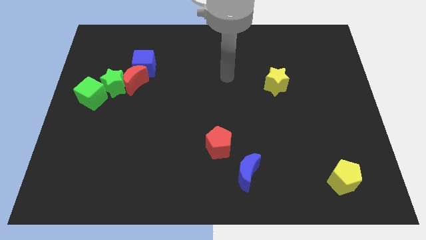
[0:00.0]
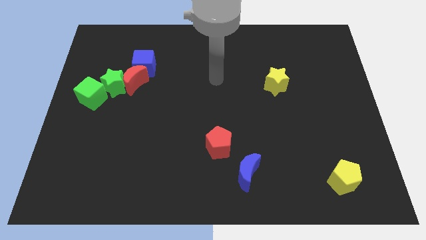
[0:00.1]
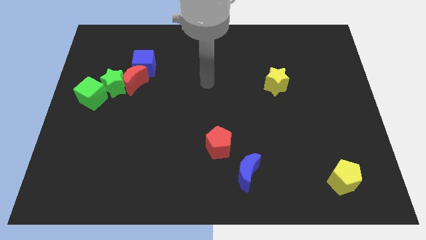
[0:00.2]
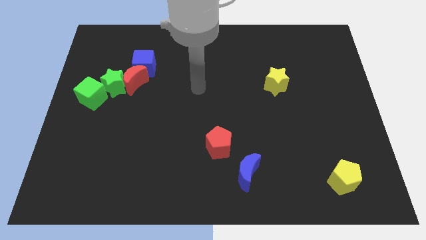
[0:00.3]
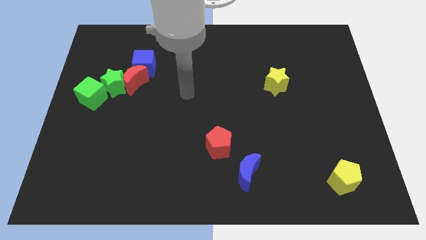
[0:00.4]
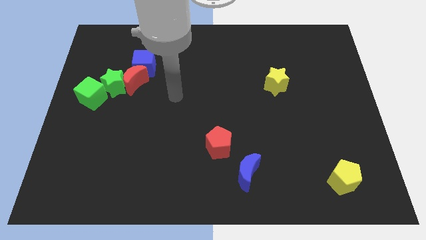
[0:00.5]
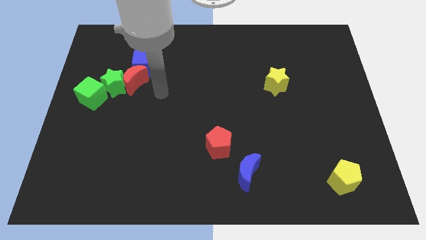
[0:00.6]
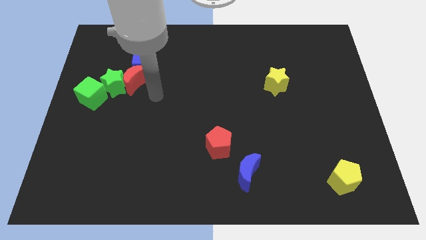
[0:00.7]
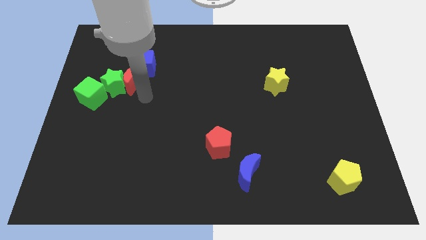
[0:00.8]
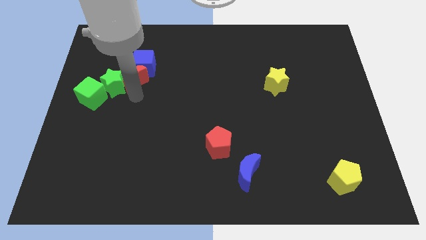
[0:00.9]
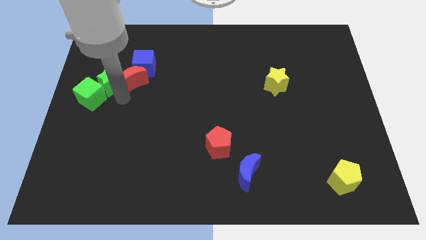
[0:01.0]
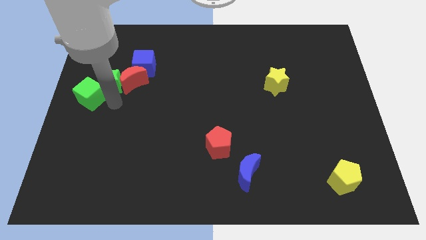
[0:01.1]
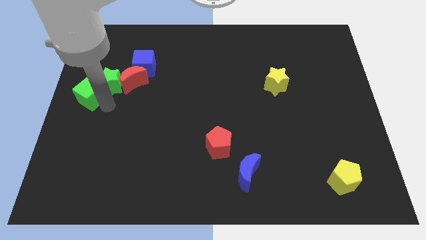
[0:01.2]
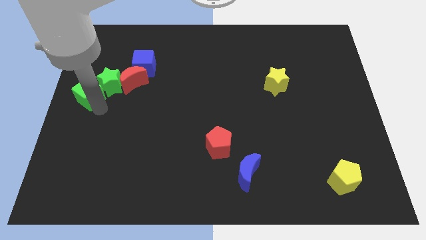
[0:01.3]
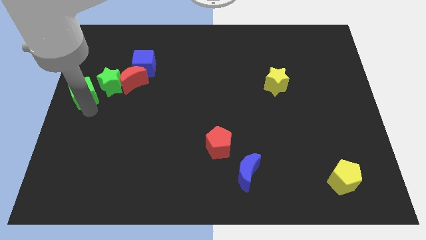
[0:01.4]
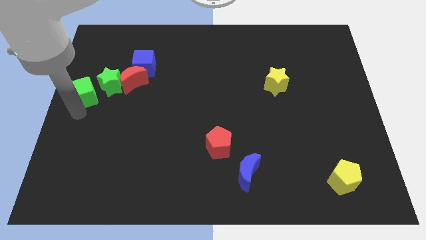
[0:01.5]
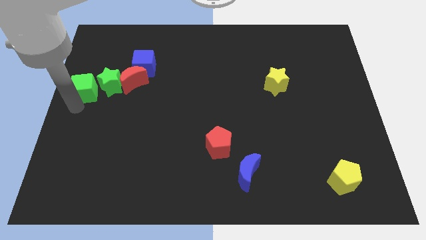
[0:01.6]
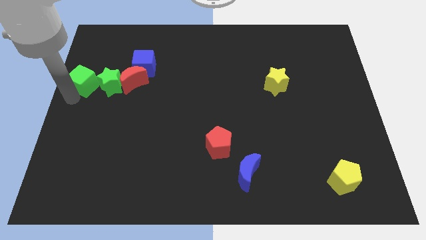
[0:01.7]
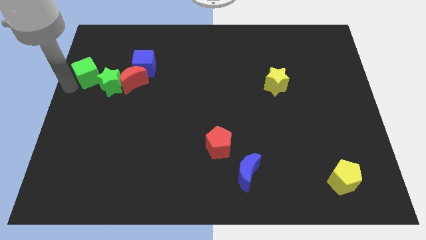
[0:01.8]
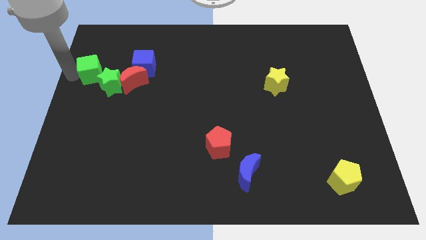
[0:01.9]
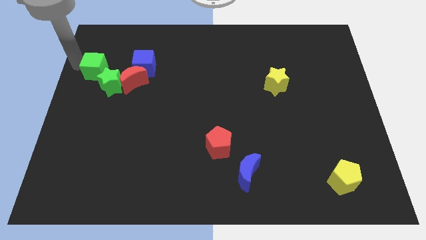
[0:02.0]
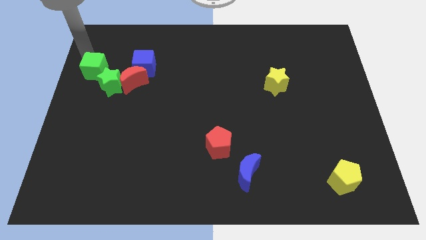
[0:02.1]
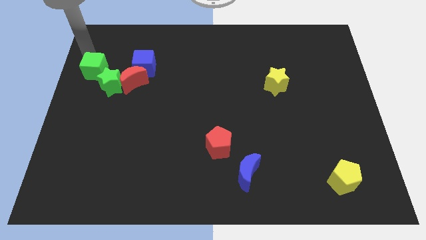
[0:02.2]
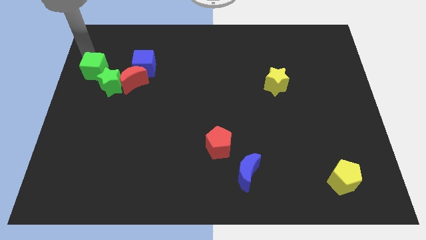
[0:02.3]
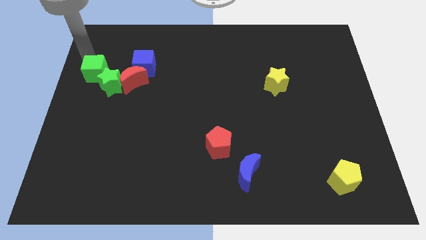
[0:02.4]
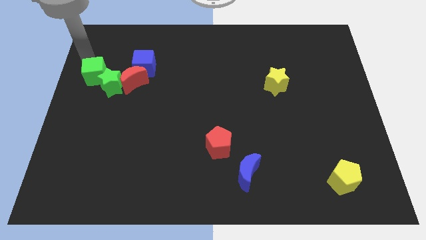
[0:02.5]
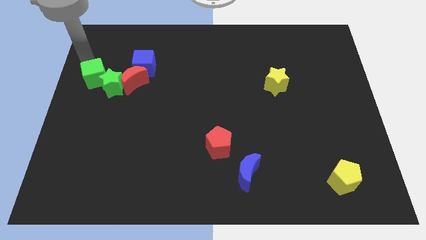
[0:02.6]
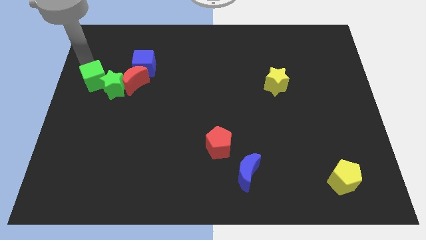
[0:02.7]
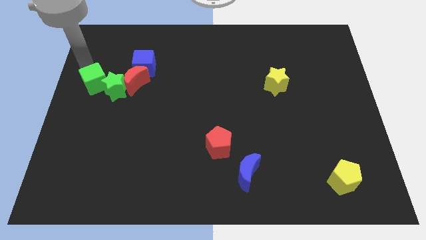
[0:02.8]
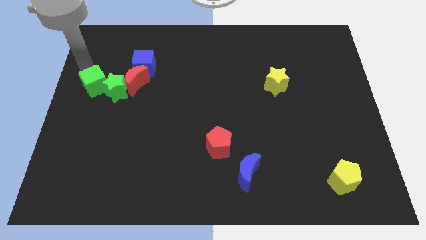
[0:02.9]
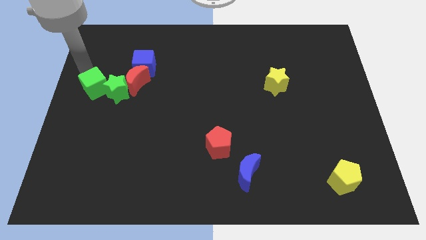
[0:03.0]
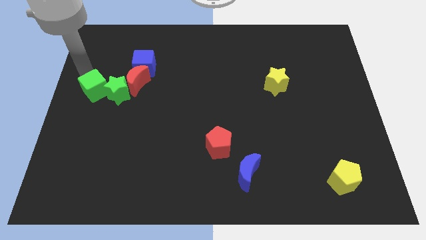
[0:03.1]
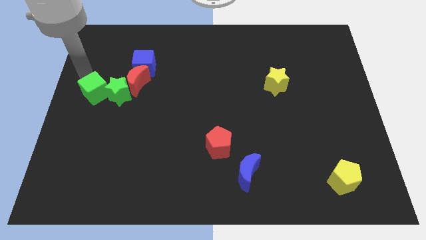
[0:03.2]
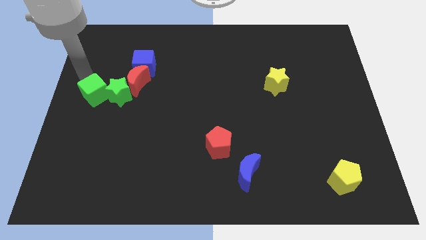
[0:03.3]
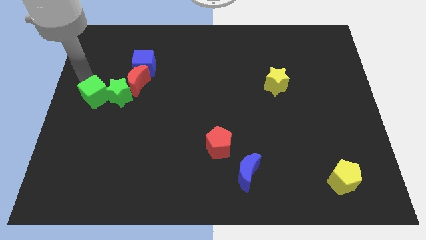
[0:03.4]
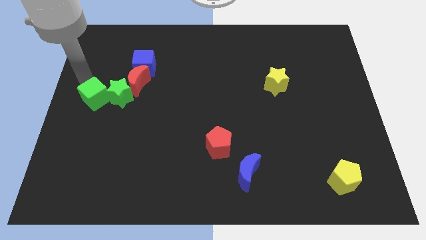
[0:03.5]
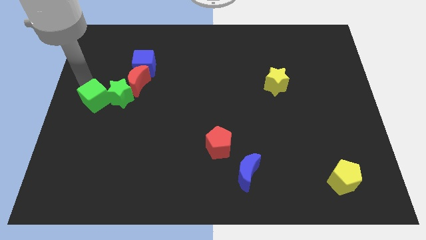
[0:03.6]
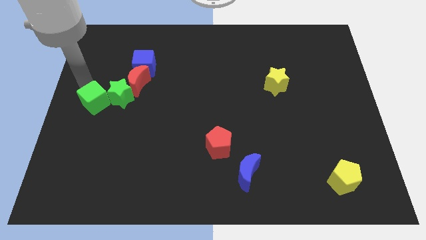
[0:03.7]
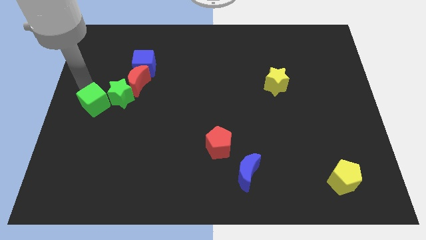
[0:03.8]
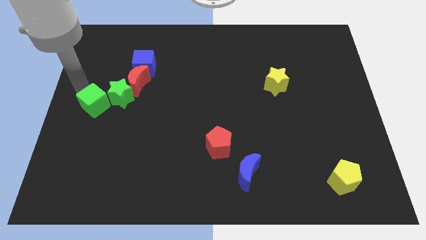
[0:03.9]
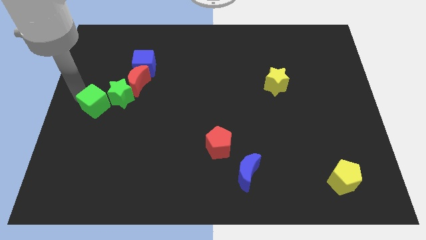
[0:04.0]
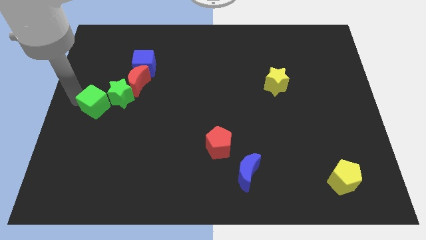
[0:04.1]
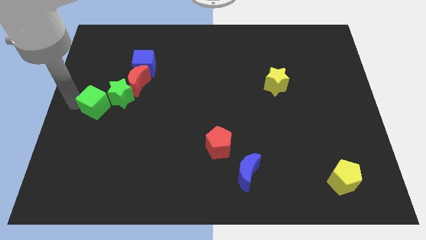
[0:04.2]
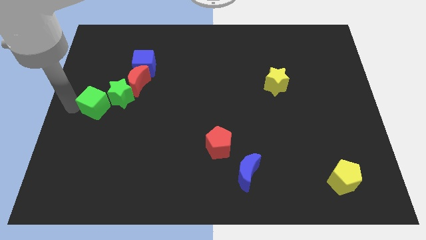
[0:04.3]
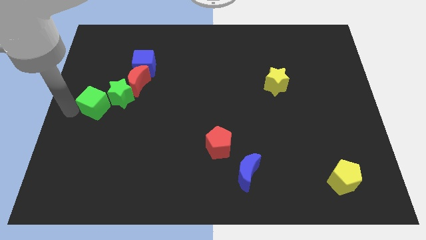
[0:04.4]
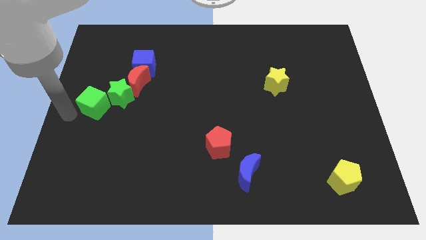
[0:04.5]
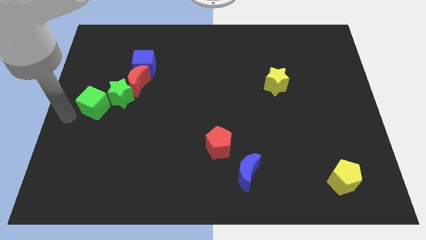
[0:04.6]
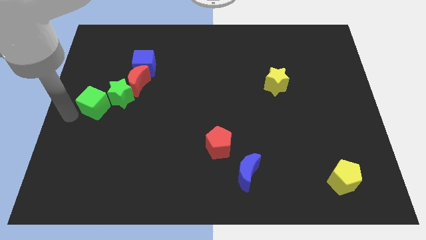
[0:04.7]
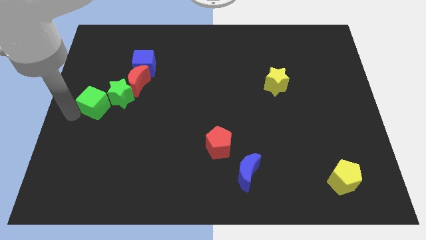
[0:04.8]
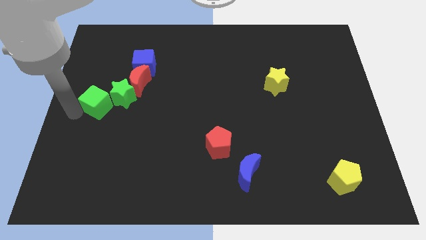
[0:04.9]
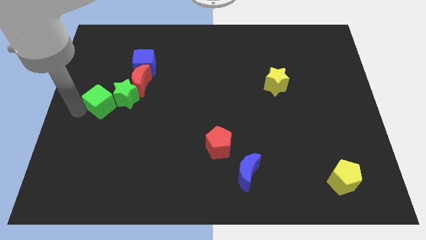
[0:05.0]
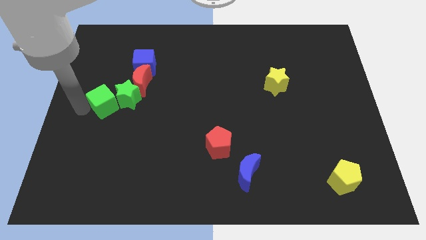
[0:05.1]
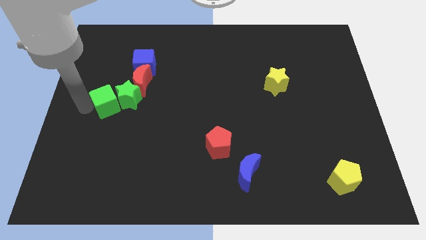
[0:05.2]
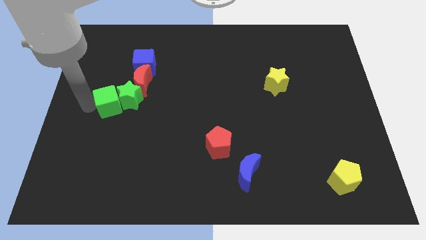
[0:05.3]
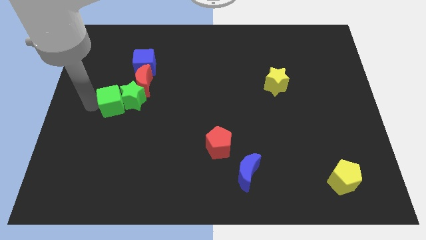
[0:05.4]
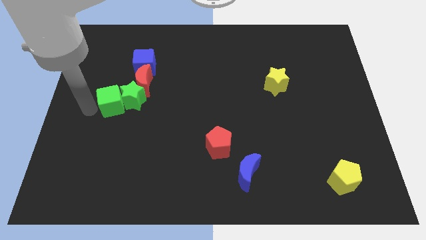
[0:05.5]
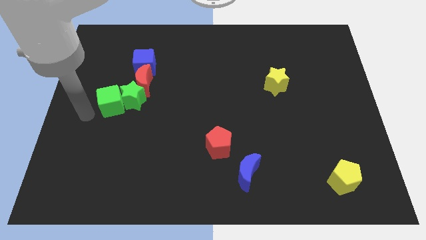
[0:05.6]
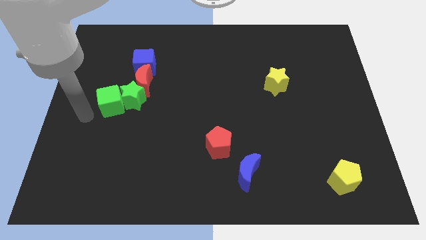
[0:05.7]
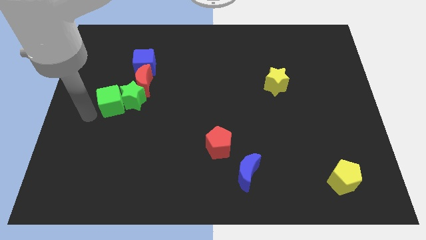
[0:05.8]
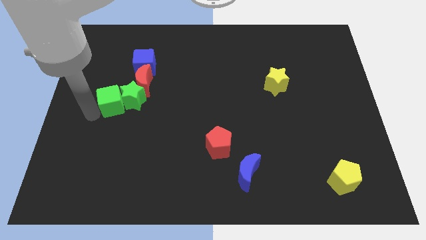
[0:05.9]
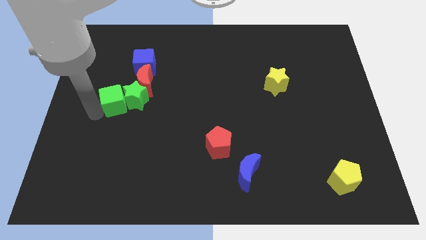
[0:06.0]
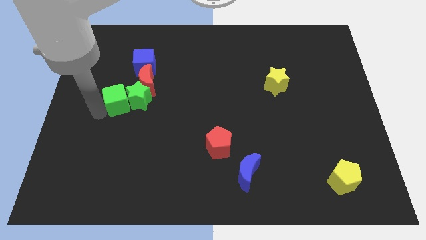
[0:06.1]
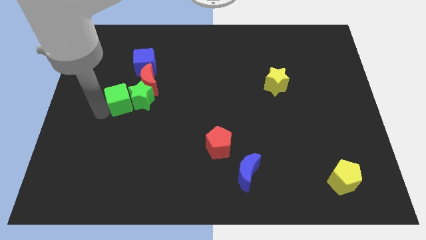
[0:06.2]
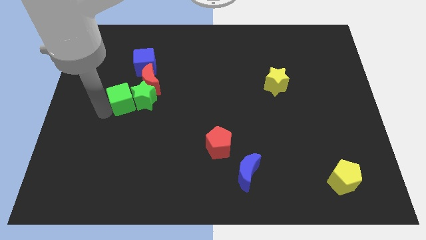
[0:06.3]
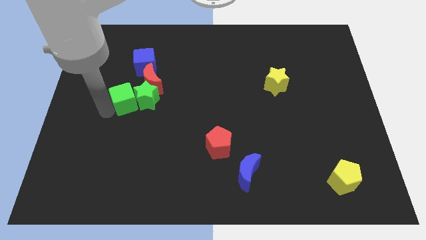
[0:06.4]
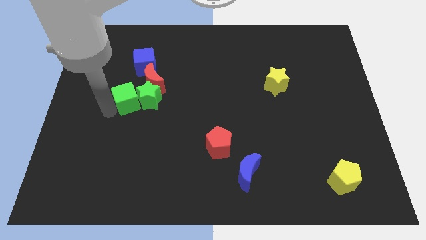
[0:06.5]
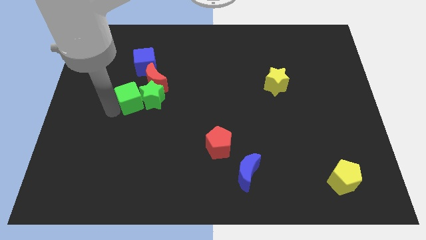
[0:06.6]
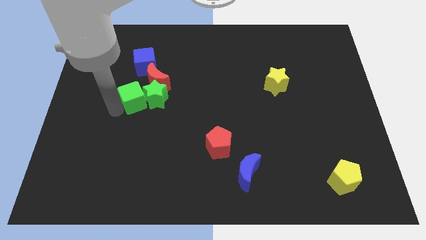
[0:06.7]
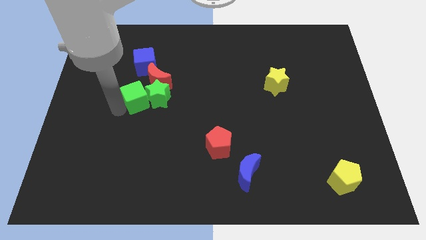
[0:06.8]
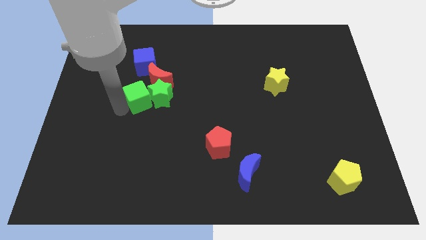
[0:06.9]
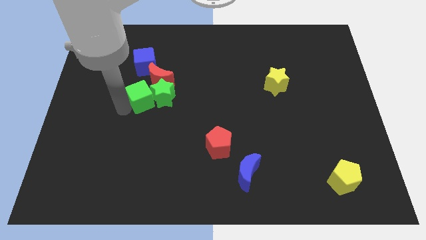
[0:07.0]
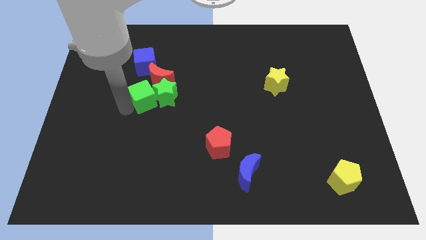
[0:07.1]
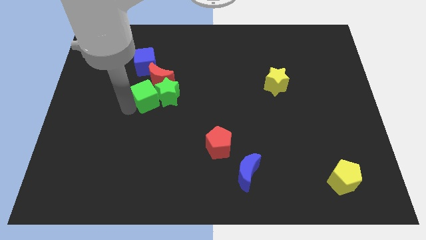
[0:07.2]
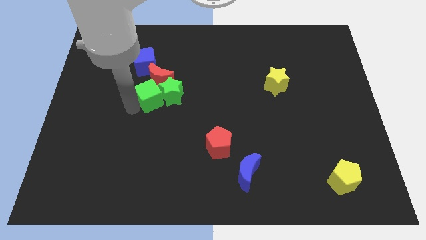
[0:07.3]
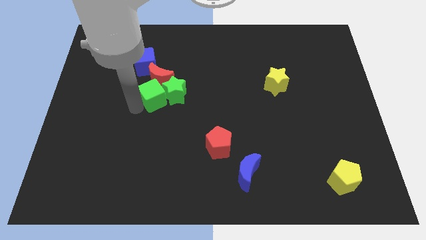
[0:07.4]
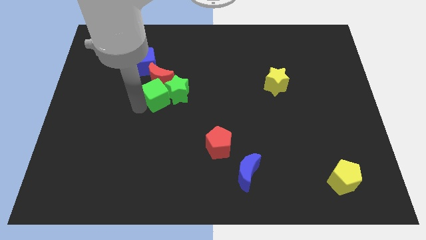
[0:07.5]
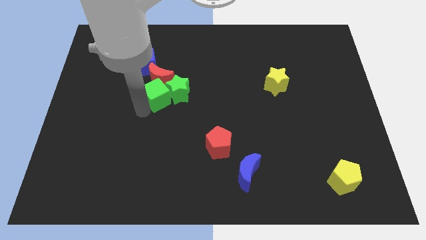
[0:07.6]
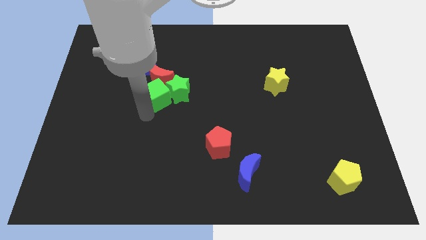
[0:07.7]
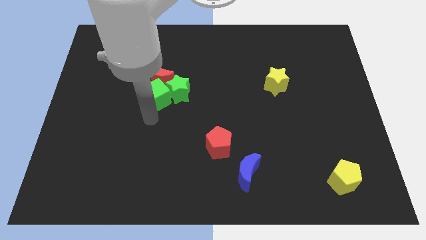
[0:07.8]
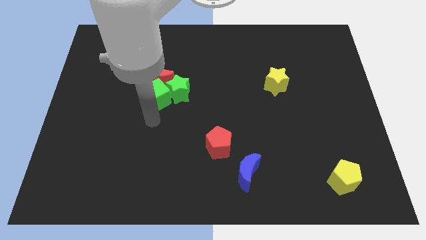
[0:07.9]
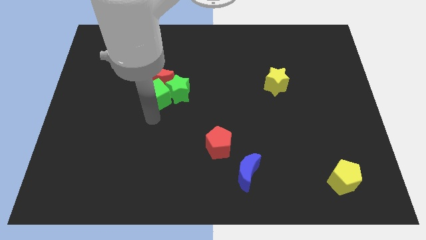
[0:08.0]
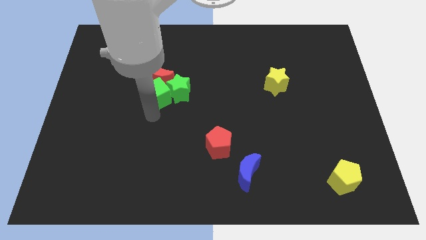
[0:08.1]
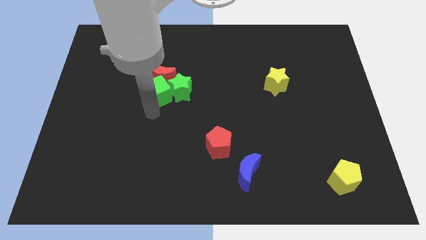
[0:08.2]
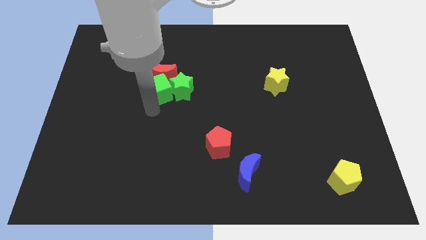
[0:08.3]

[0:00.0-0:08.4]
slightly push the green cube upwards and then to the right
